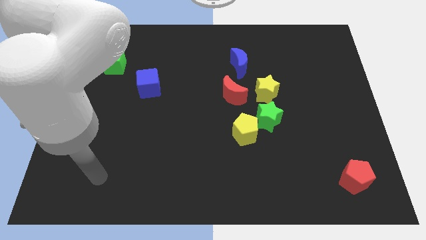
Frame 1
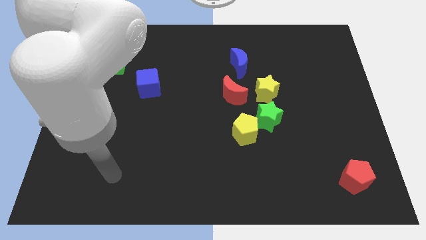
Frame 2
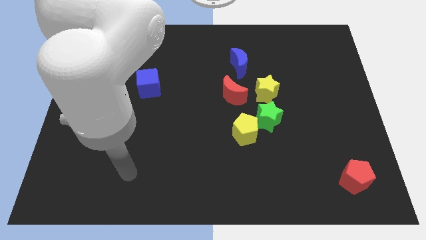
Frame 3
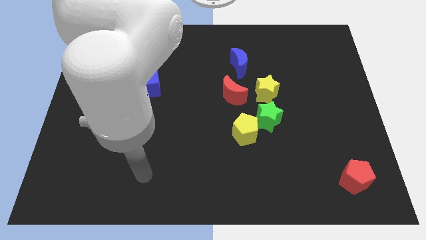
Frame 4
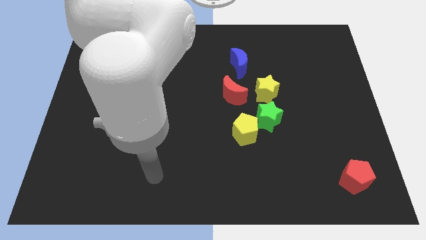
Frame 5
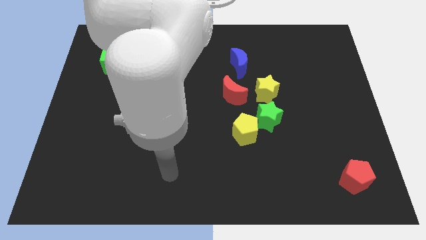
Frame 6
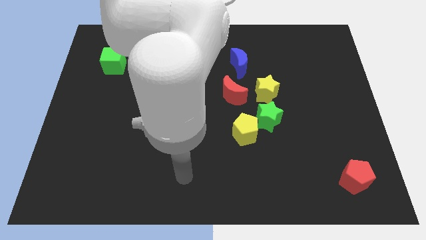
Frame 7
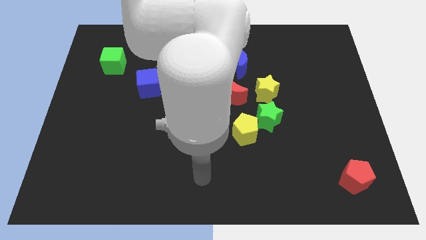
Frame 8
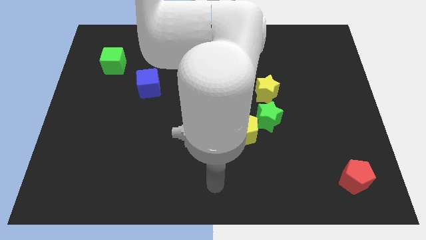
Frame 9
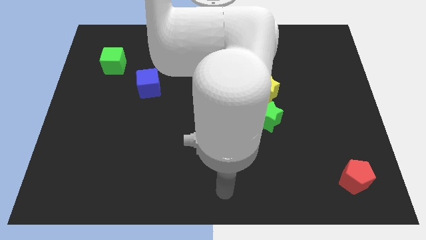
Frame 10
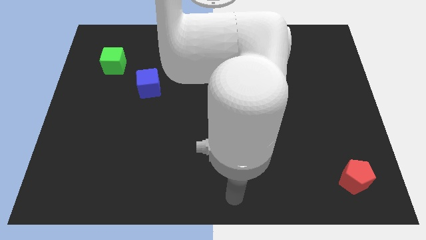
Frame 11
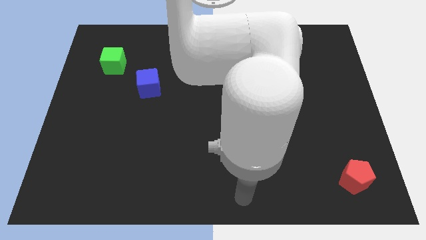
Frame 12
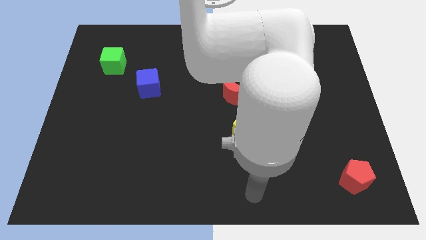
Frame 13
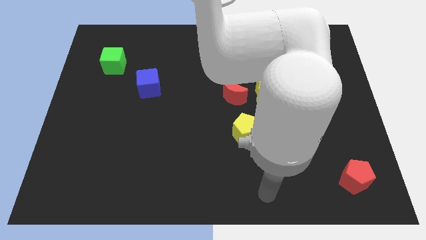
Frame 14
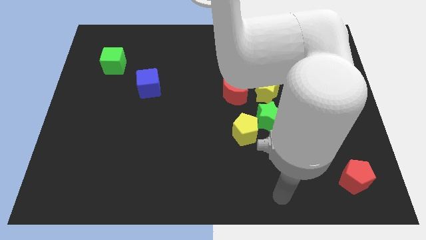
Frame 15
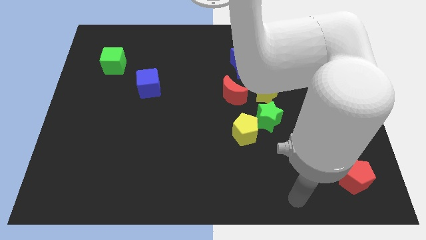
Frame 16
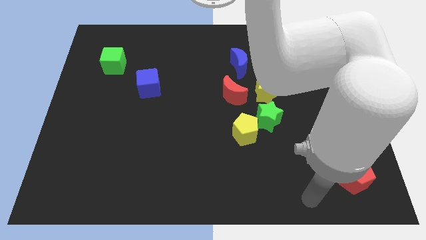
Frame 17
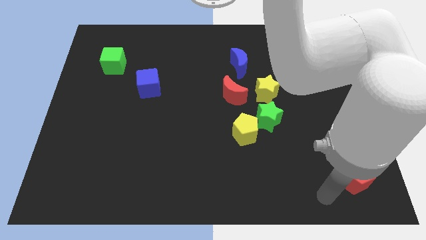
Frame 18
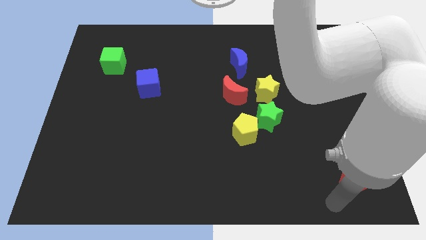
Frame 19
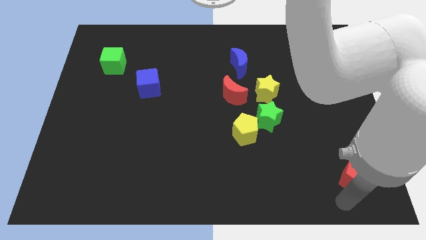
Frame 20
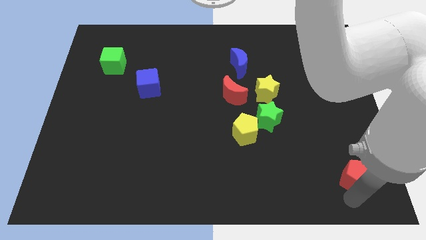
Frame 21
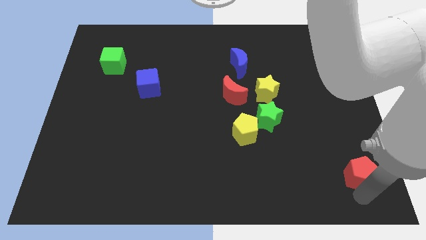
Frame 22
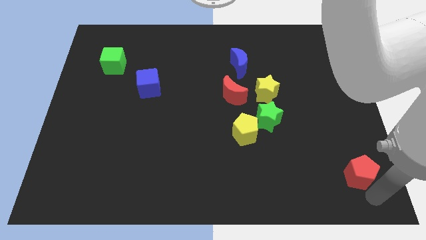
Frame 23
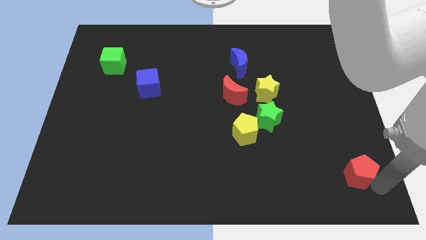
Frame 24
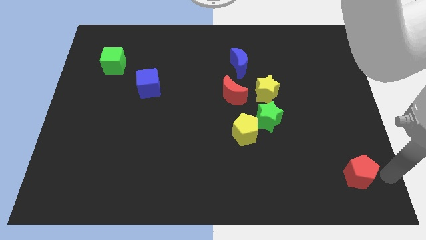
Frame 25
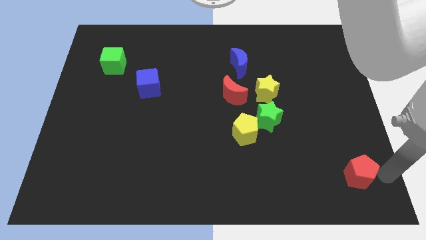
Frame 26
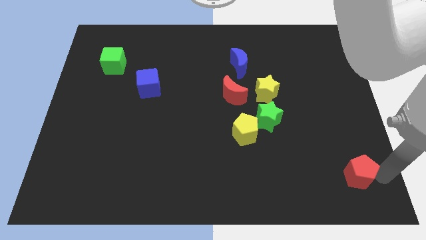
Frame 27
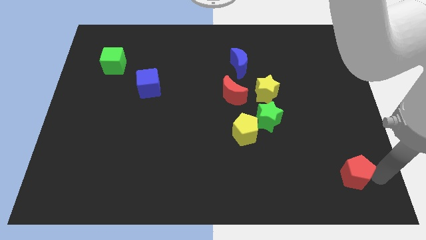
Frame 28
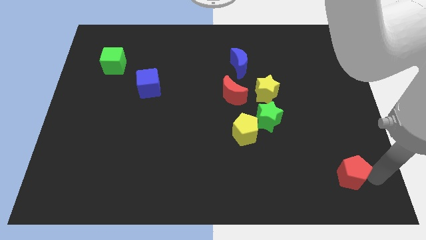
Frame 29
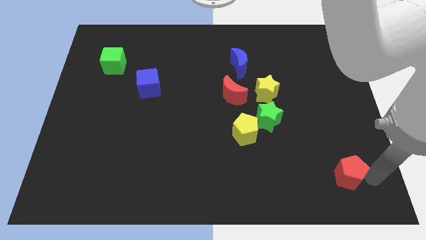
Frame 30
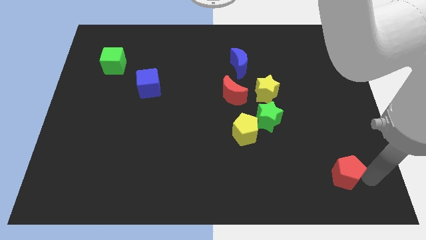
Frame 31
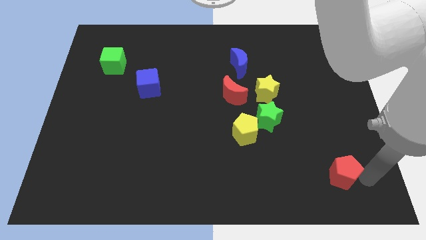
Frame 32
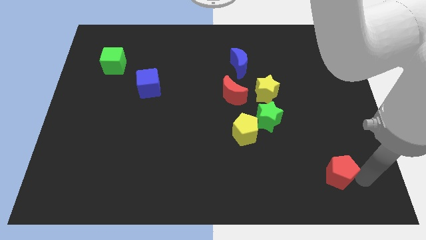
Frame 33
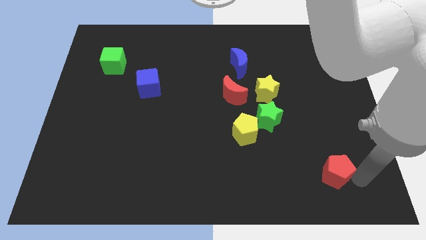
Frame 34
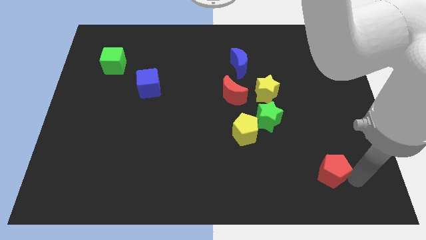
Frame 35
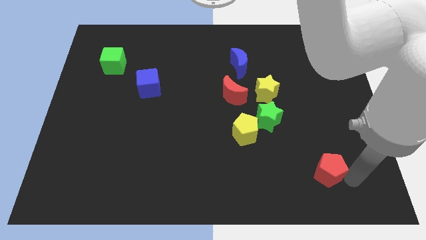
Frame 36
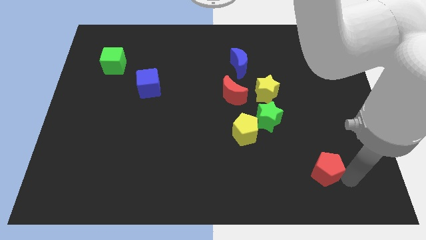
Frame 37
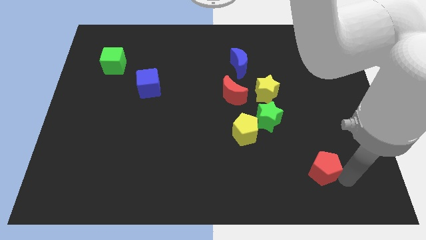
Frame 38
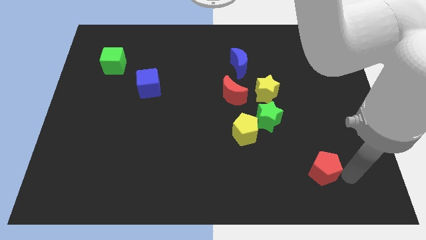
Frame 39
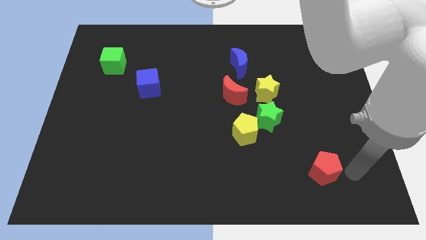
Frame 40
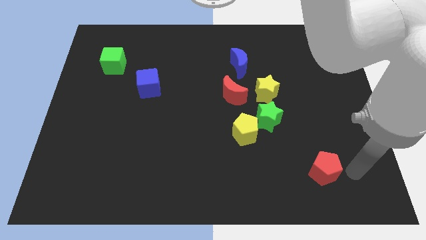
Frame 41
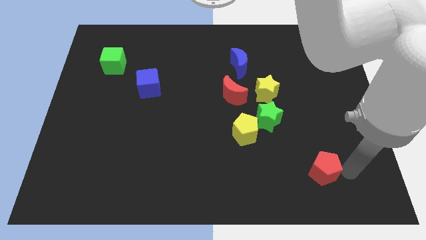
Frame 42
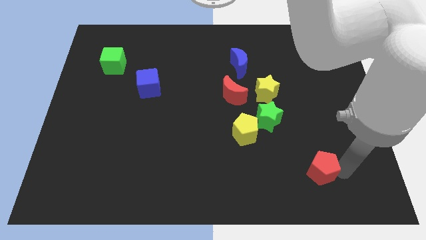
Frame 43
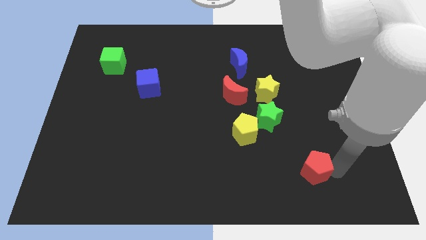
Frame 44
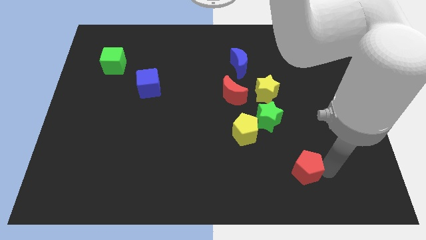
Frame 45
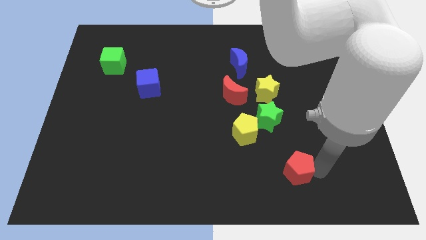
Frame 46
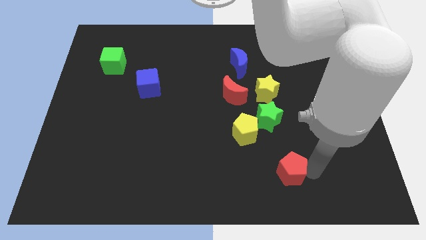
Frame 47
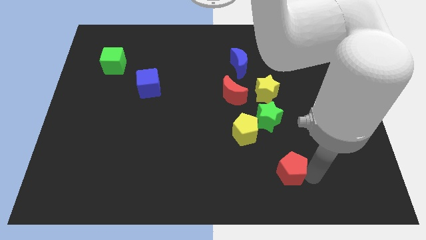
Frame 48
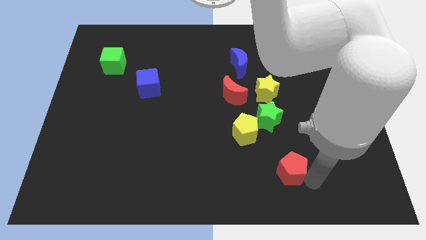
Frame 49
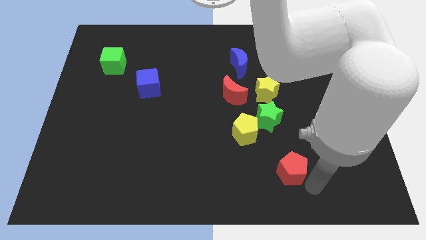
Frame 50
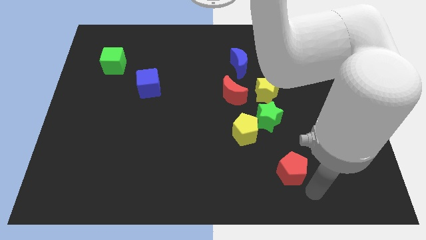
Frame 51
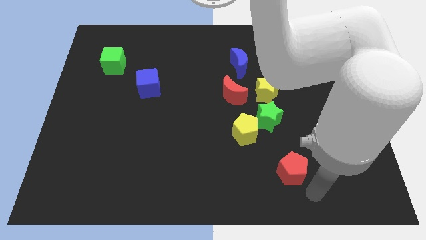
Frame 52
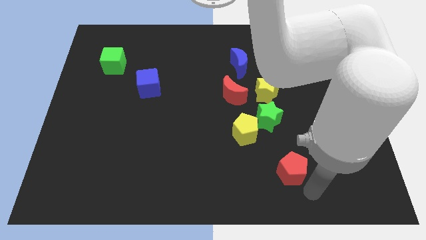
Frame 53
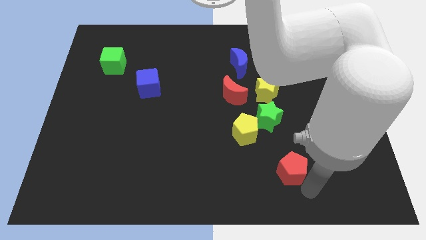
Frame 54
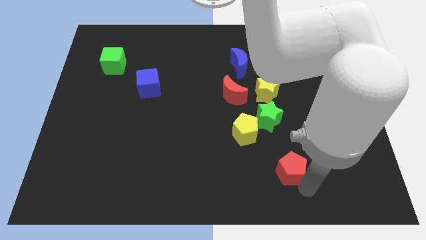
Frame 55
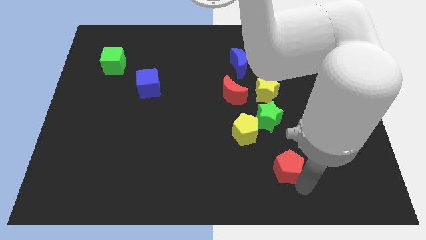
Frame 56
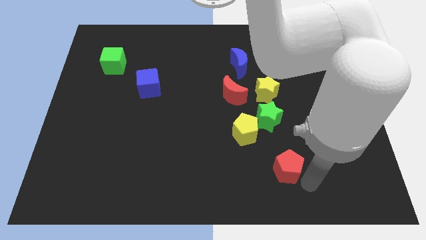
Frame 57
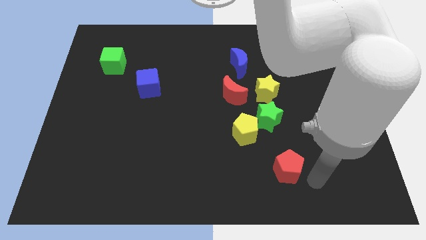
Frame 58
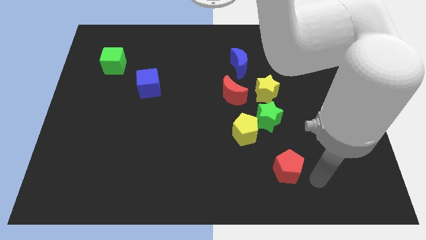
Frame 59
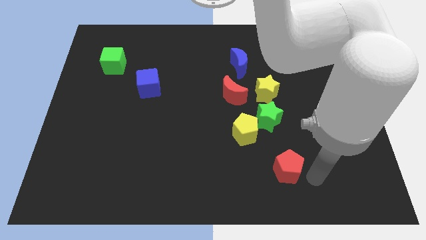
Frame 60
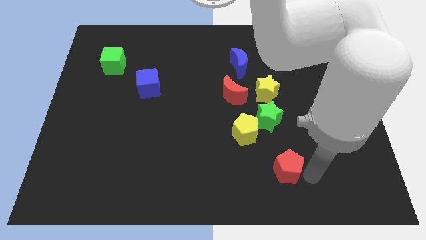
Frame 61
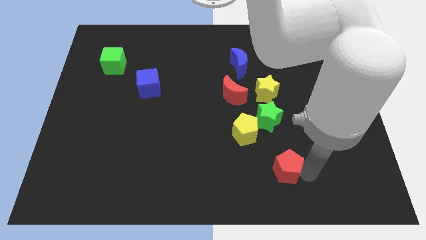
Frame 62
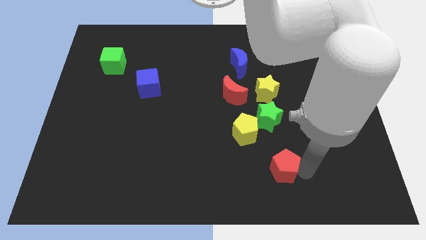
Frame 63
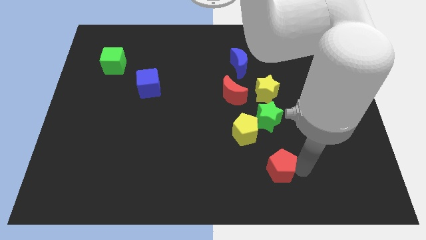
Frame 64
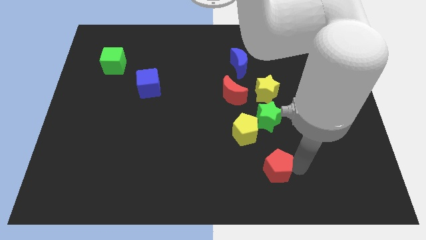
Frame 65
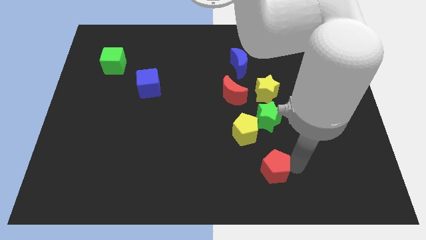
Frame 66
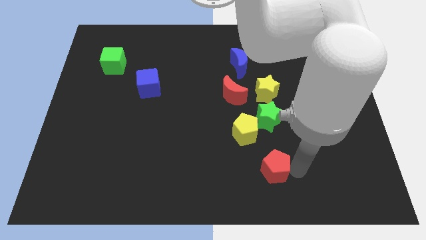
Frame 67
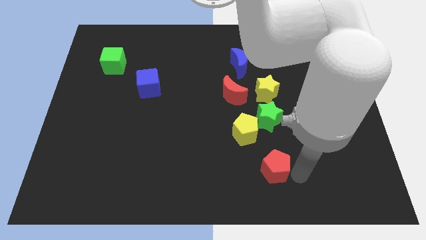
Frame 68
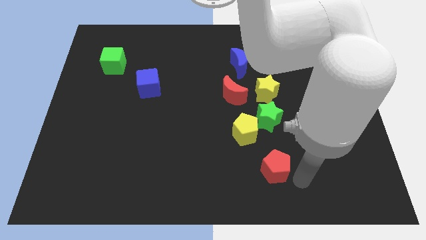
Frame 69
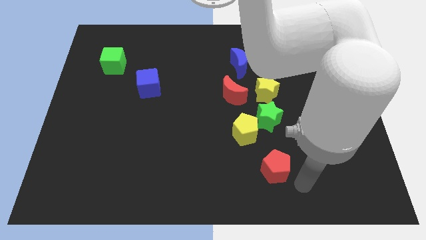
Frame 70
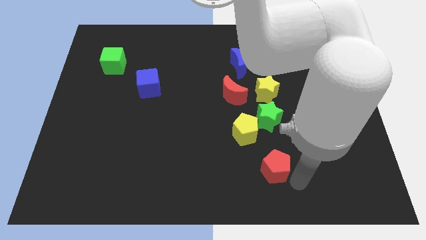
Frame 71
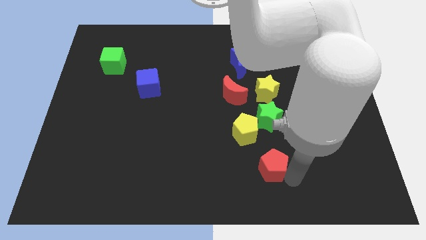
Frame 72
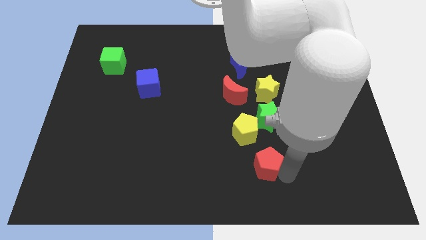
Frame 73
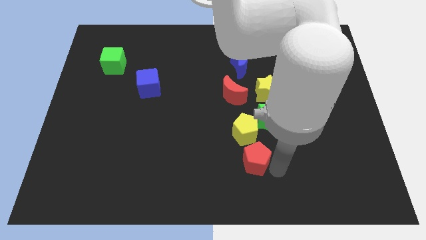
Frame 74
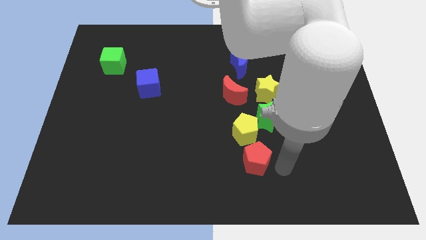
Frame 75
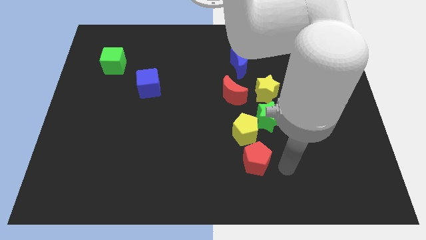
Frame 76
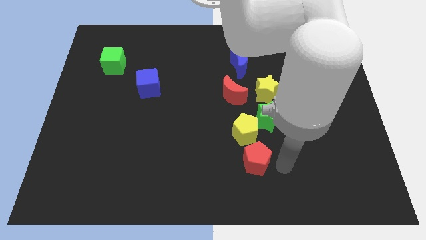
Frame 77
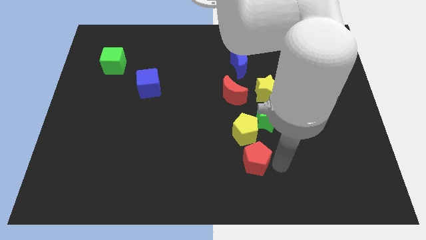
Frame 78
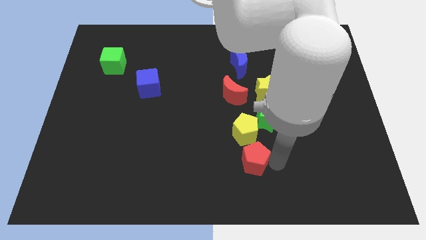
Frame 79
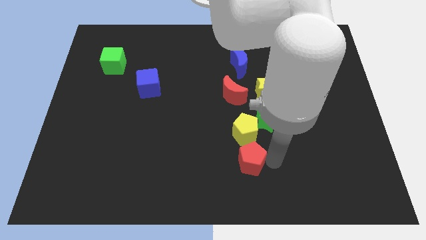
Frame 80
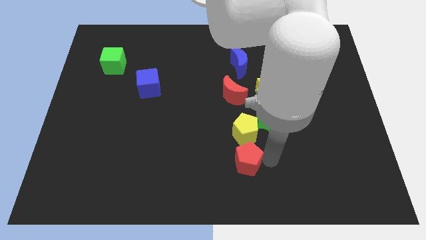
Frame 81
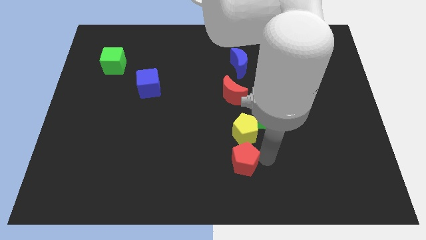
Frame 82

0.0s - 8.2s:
put the red pentagon diagonally down and to the left of the yellow pentagon
